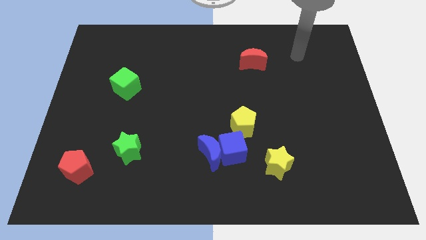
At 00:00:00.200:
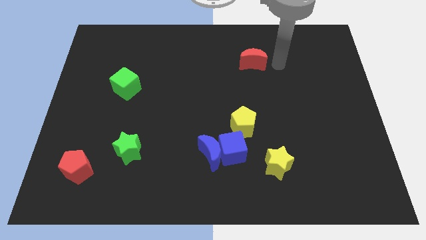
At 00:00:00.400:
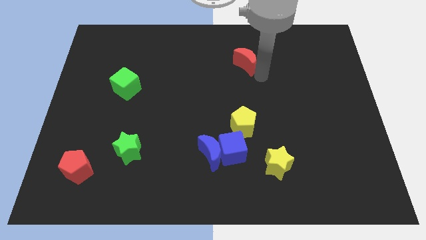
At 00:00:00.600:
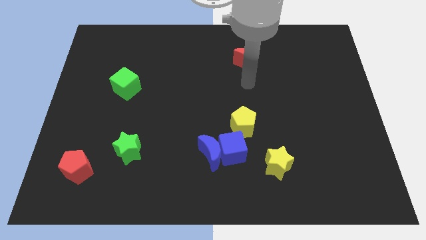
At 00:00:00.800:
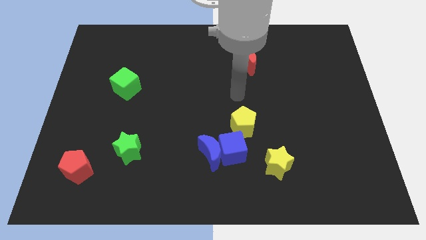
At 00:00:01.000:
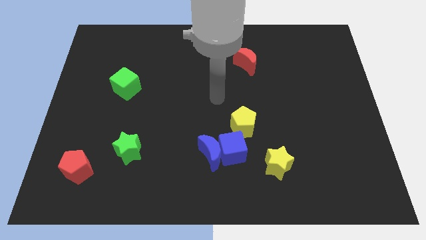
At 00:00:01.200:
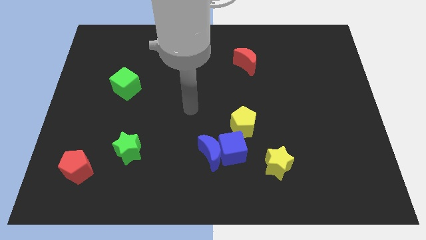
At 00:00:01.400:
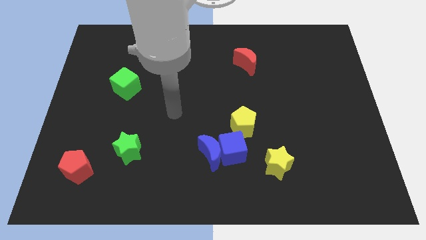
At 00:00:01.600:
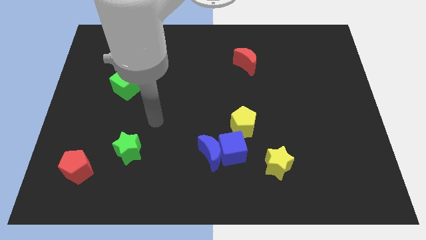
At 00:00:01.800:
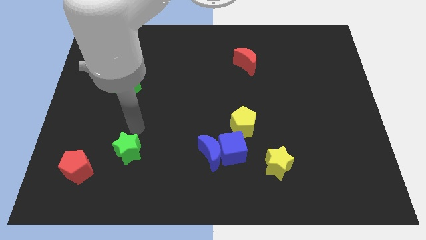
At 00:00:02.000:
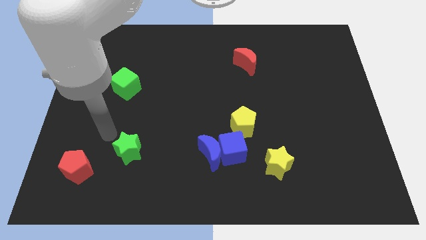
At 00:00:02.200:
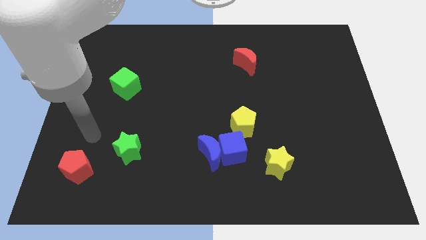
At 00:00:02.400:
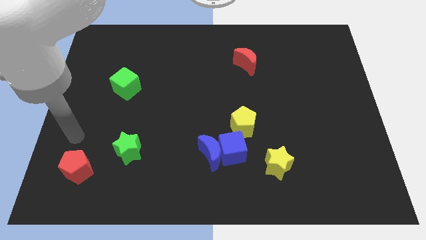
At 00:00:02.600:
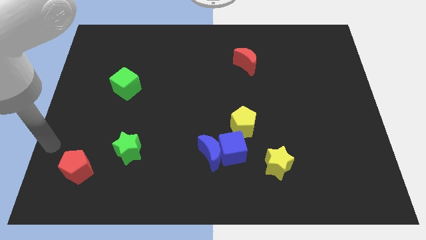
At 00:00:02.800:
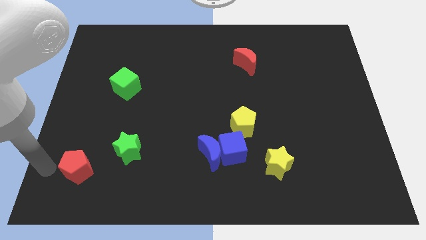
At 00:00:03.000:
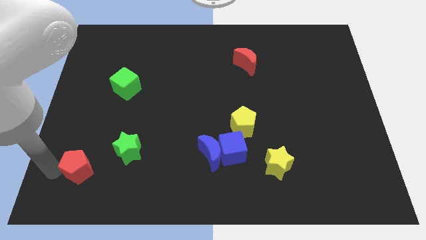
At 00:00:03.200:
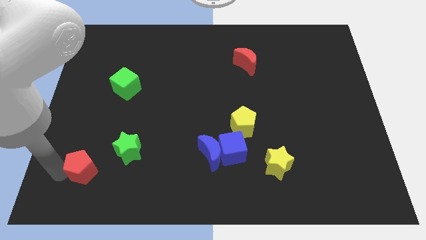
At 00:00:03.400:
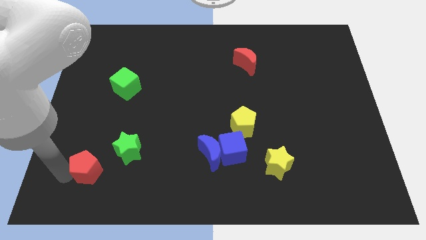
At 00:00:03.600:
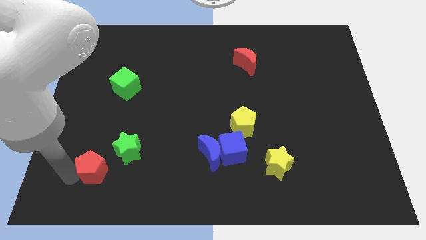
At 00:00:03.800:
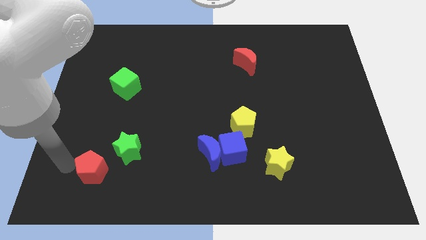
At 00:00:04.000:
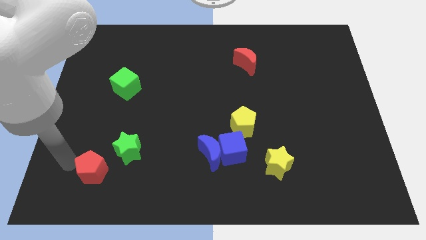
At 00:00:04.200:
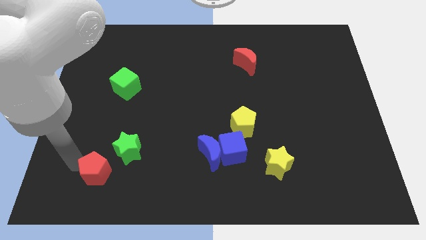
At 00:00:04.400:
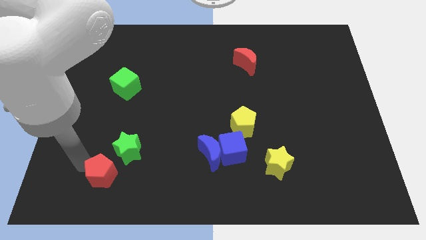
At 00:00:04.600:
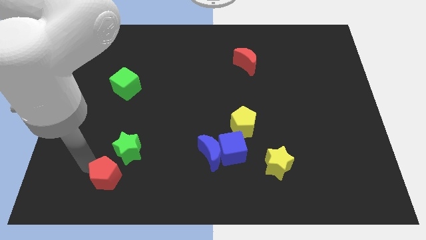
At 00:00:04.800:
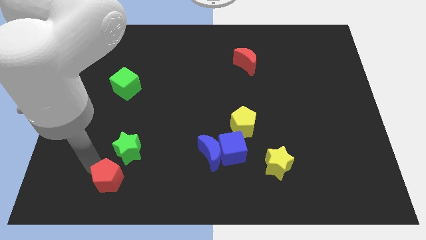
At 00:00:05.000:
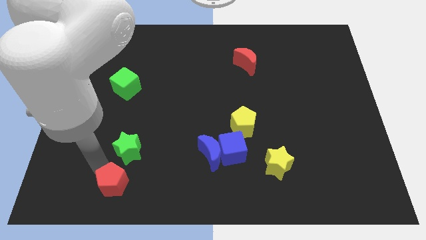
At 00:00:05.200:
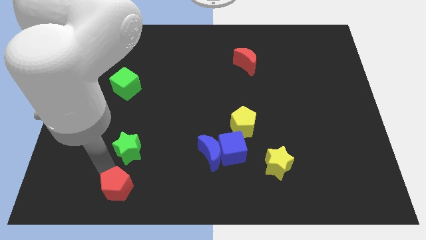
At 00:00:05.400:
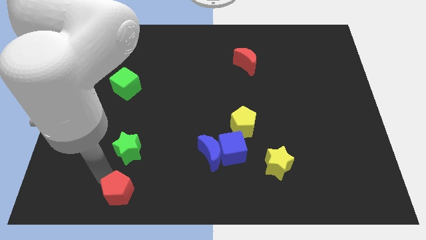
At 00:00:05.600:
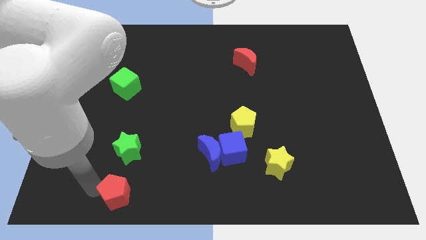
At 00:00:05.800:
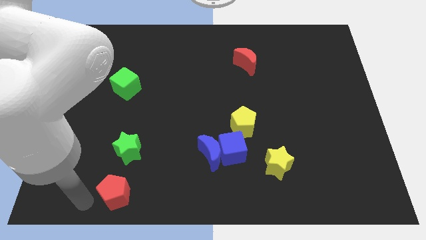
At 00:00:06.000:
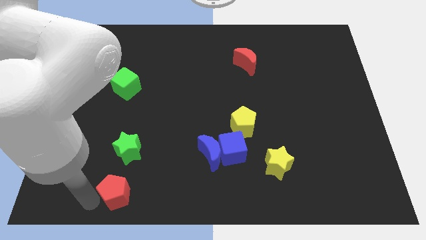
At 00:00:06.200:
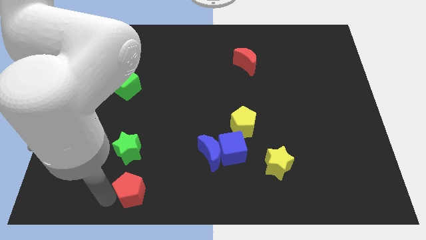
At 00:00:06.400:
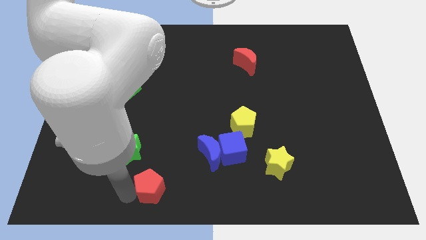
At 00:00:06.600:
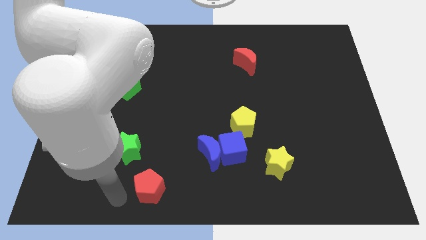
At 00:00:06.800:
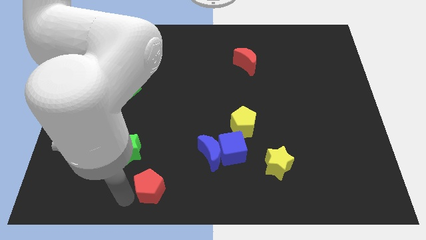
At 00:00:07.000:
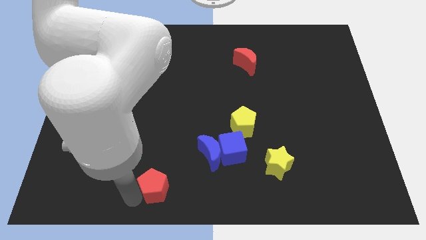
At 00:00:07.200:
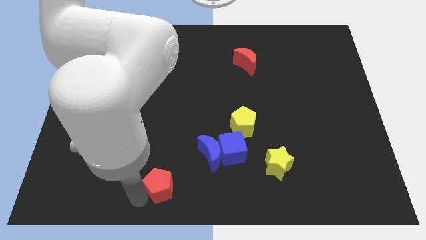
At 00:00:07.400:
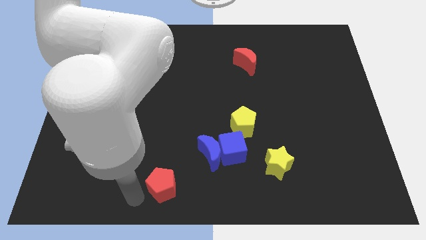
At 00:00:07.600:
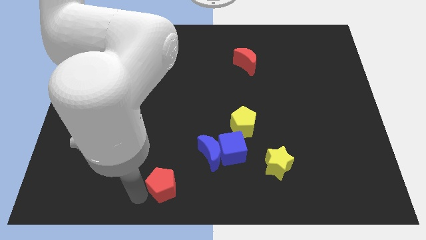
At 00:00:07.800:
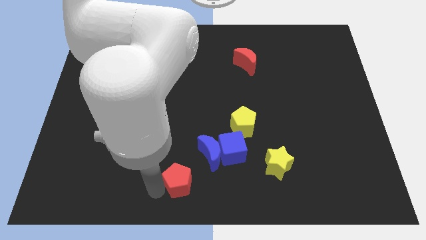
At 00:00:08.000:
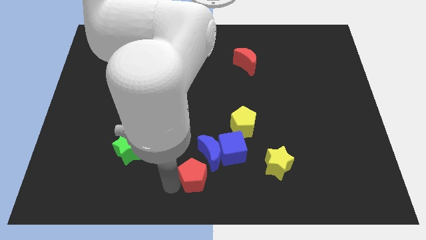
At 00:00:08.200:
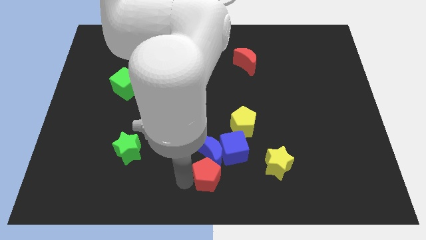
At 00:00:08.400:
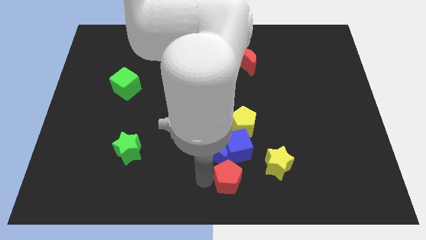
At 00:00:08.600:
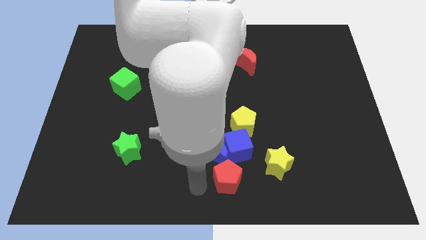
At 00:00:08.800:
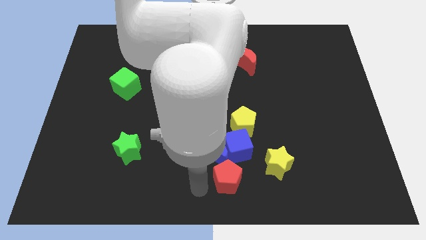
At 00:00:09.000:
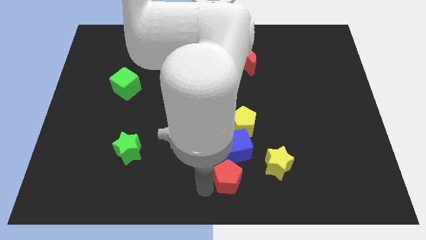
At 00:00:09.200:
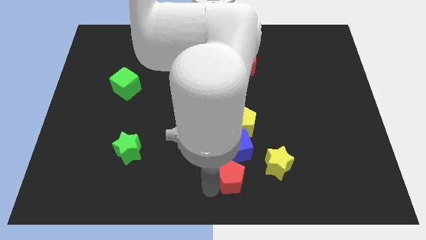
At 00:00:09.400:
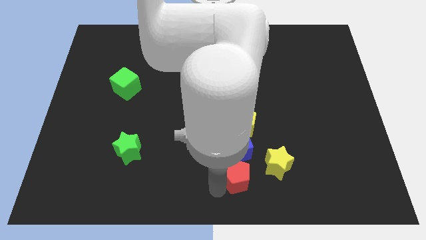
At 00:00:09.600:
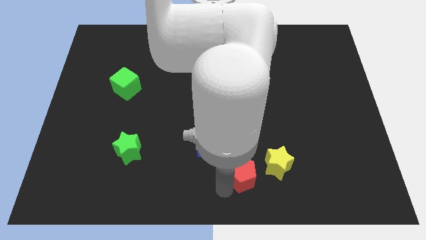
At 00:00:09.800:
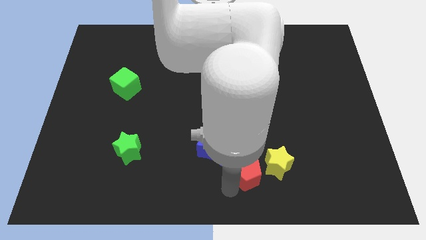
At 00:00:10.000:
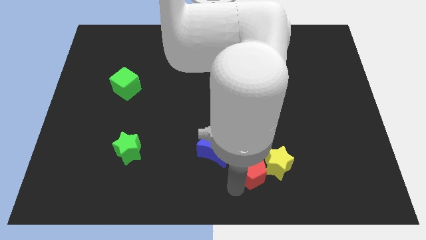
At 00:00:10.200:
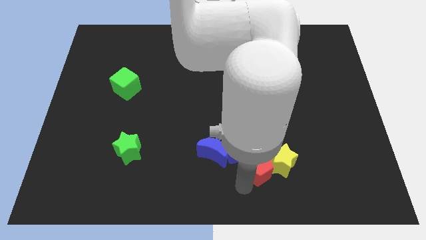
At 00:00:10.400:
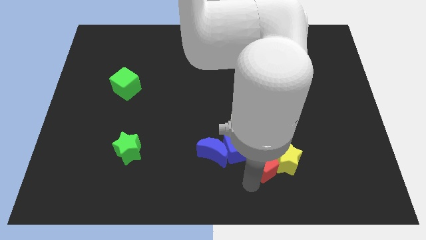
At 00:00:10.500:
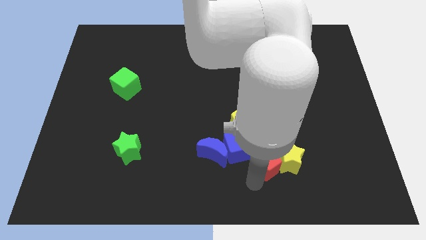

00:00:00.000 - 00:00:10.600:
move the red pentagon diagonally down and to the right of the yellow pentagon

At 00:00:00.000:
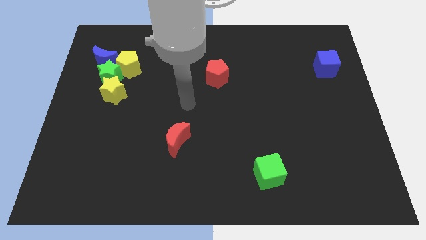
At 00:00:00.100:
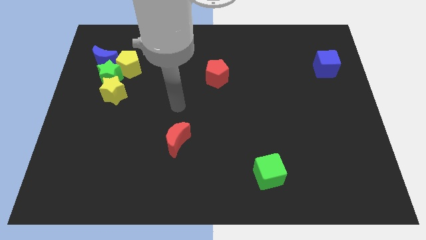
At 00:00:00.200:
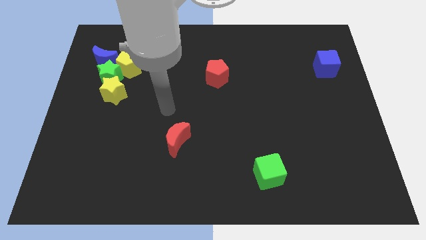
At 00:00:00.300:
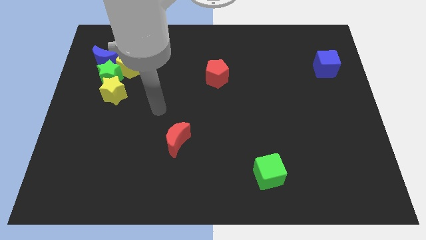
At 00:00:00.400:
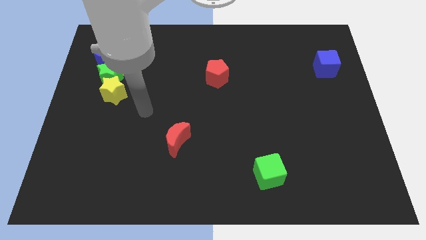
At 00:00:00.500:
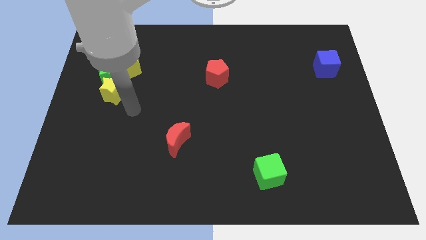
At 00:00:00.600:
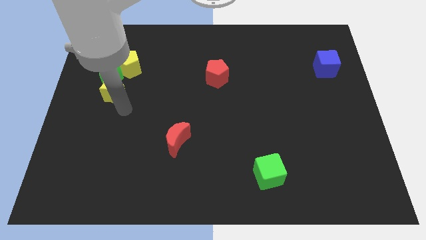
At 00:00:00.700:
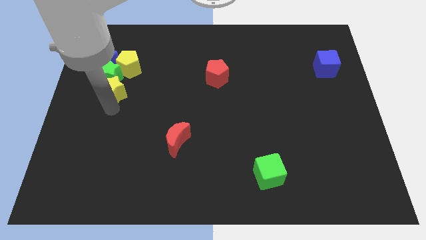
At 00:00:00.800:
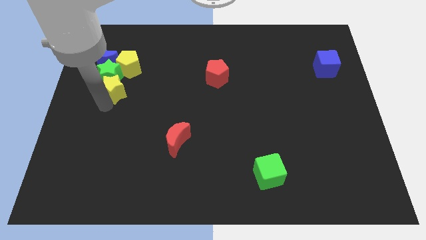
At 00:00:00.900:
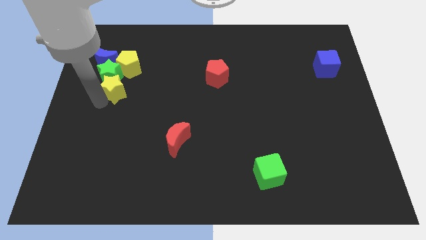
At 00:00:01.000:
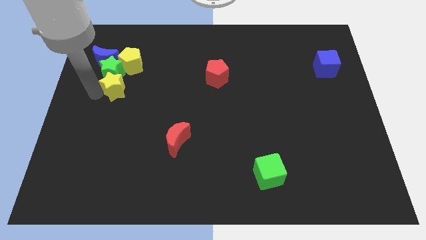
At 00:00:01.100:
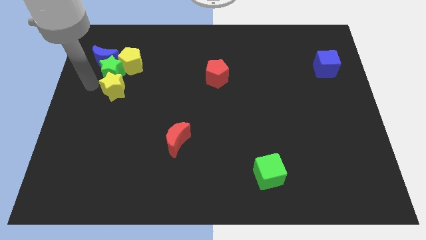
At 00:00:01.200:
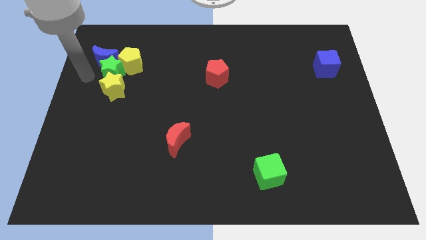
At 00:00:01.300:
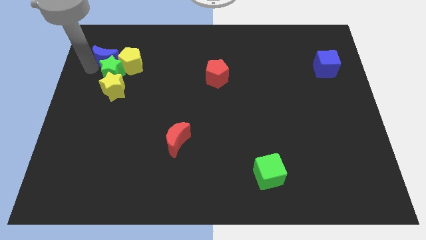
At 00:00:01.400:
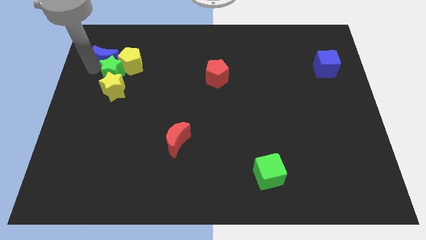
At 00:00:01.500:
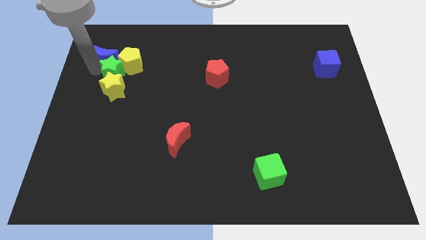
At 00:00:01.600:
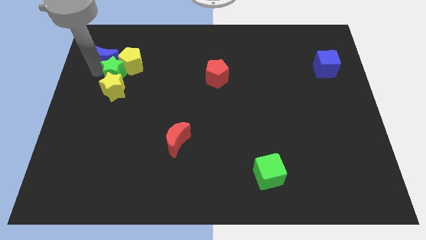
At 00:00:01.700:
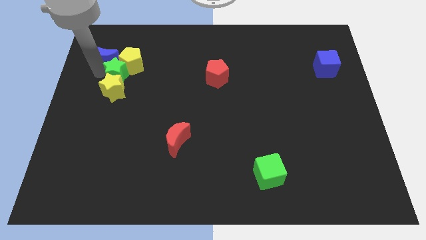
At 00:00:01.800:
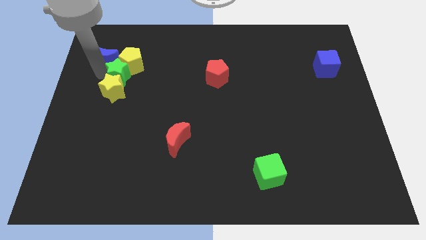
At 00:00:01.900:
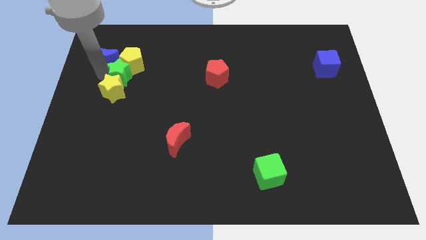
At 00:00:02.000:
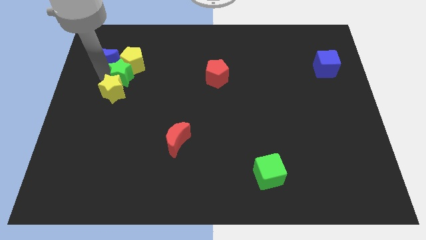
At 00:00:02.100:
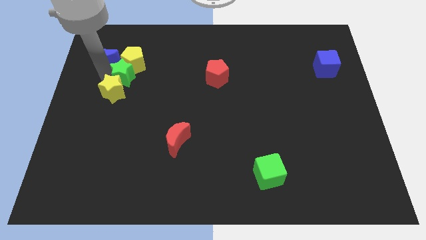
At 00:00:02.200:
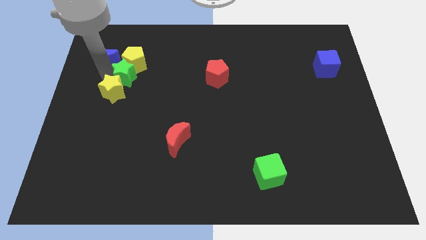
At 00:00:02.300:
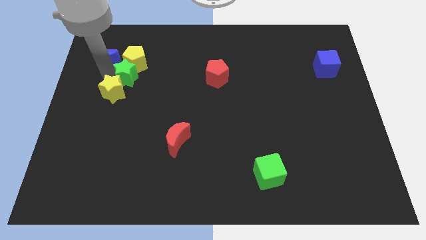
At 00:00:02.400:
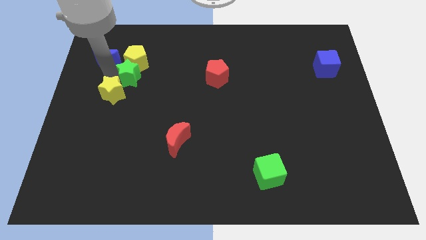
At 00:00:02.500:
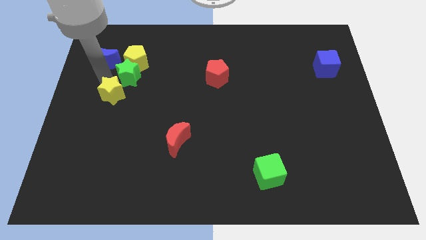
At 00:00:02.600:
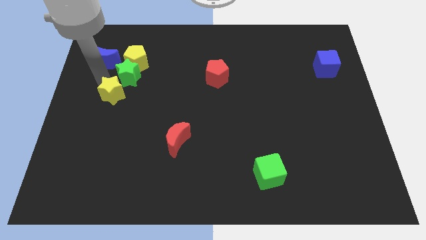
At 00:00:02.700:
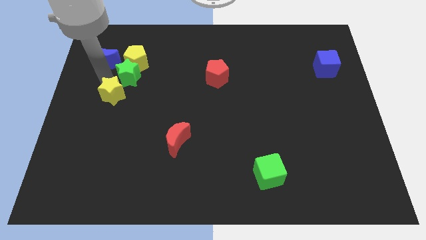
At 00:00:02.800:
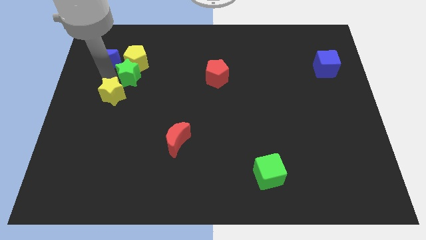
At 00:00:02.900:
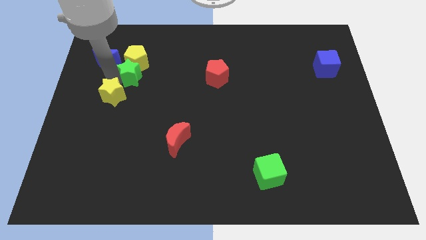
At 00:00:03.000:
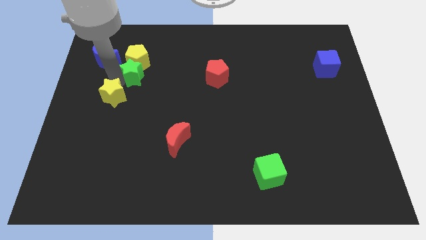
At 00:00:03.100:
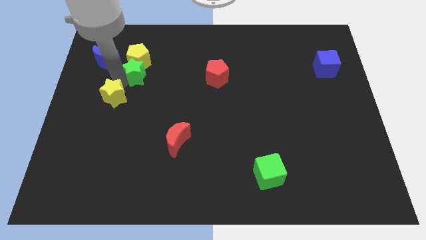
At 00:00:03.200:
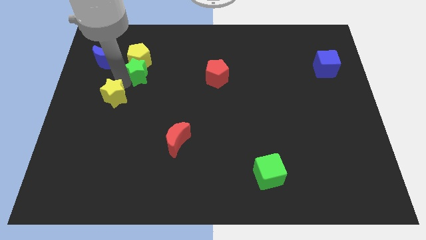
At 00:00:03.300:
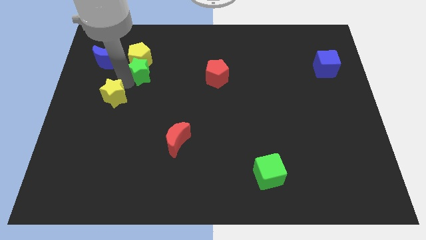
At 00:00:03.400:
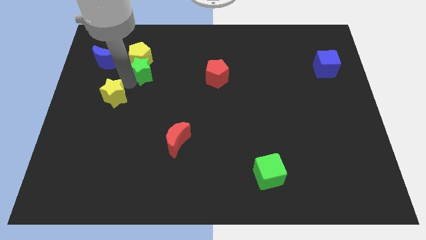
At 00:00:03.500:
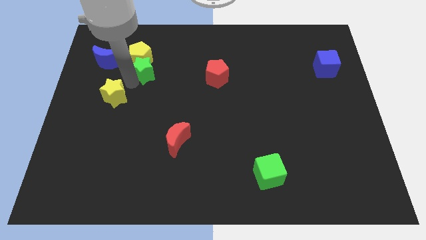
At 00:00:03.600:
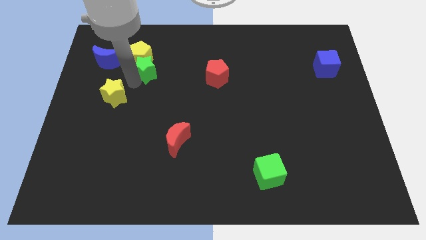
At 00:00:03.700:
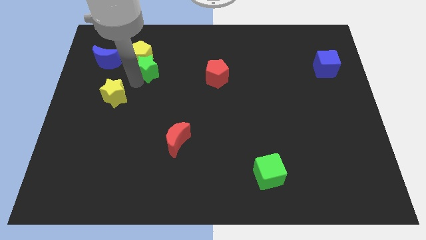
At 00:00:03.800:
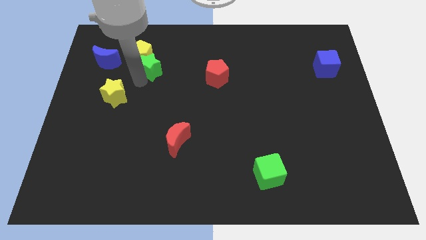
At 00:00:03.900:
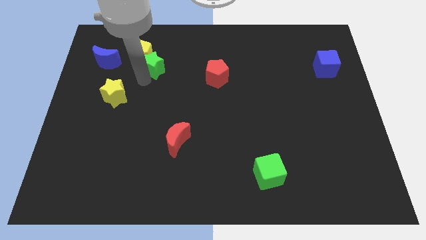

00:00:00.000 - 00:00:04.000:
move the green star right of the yellow pentagon
